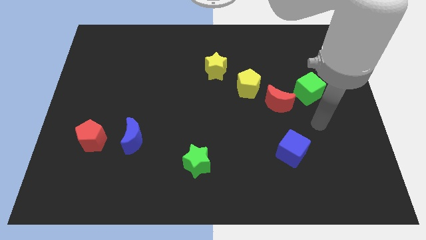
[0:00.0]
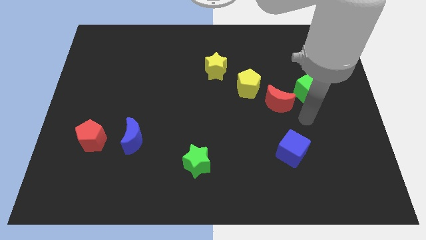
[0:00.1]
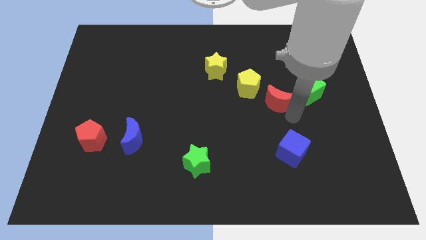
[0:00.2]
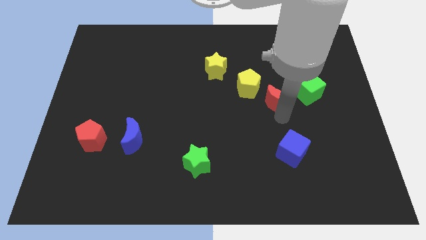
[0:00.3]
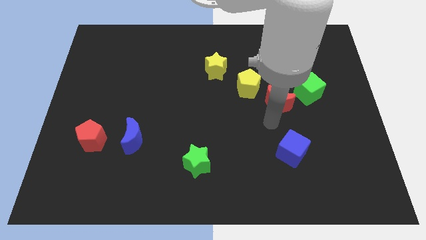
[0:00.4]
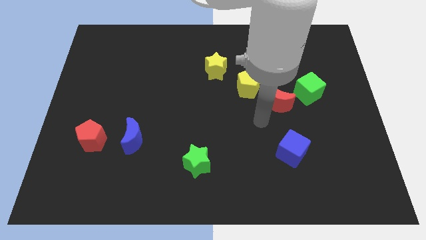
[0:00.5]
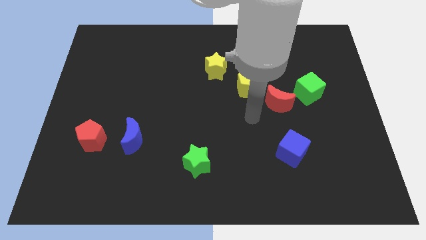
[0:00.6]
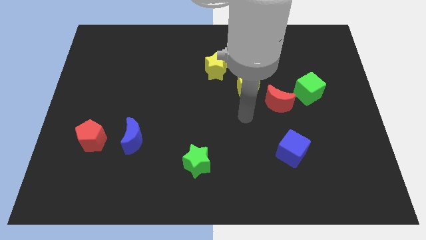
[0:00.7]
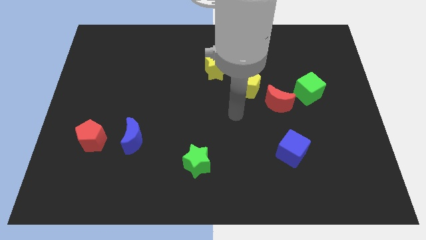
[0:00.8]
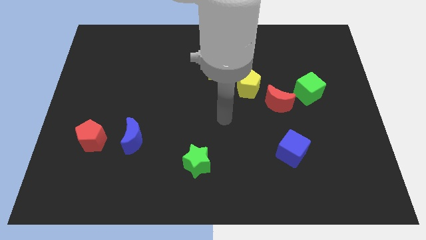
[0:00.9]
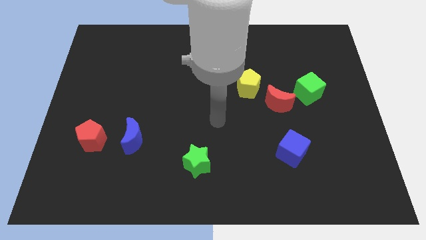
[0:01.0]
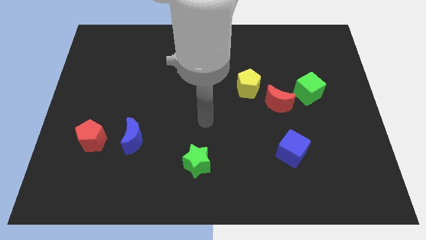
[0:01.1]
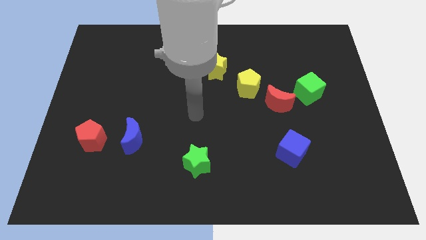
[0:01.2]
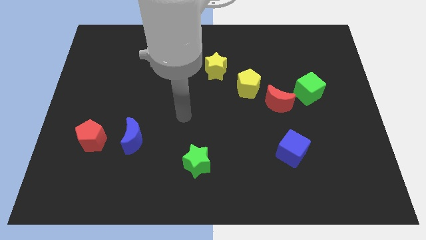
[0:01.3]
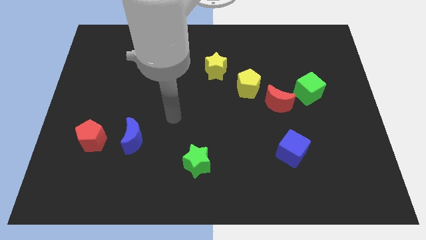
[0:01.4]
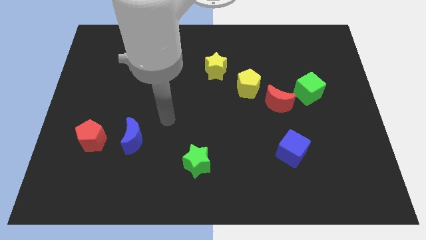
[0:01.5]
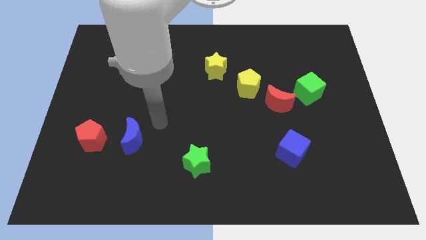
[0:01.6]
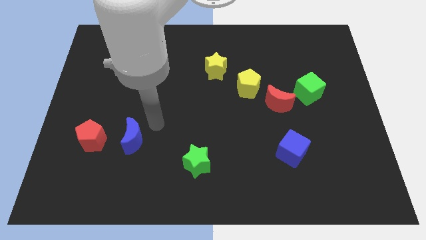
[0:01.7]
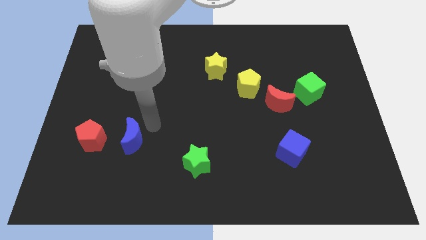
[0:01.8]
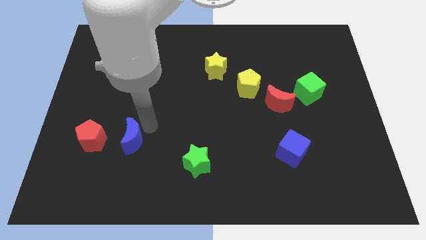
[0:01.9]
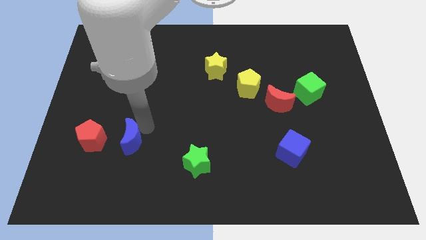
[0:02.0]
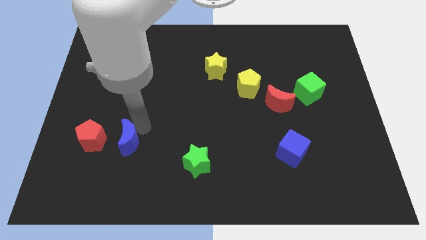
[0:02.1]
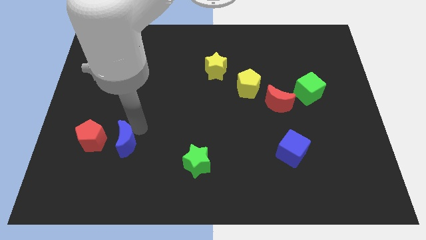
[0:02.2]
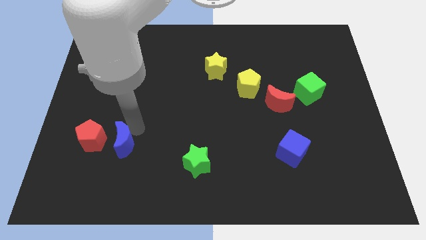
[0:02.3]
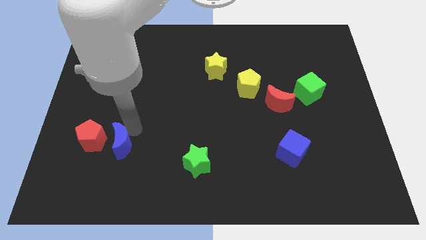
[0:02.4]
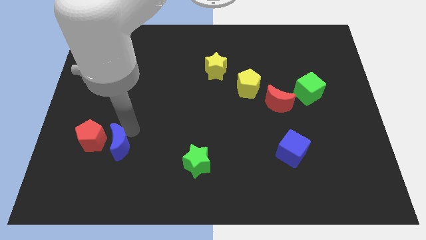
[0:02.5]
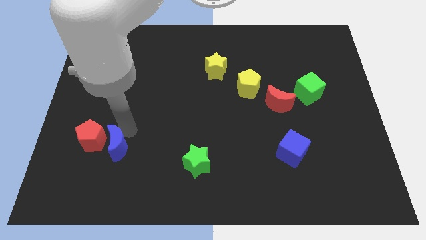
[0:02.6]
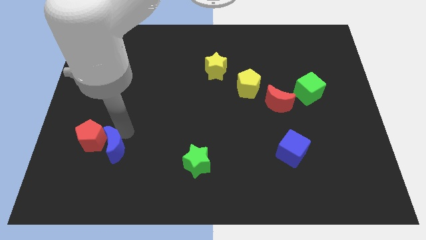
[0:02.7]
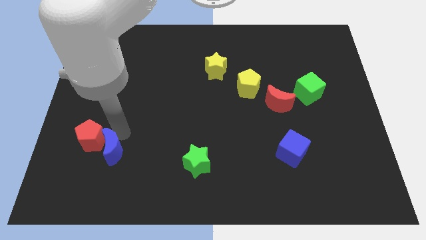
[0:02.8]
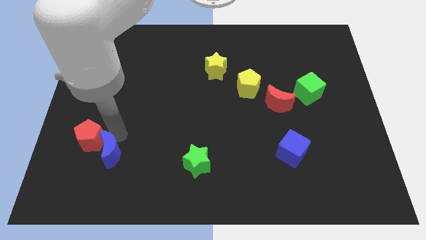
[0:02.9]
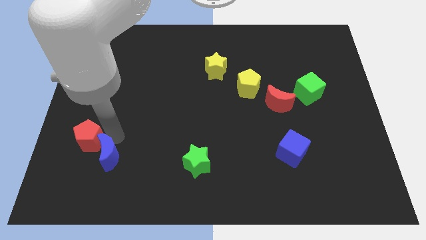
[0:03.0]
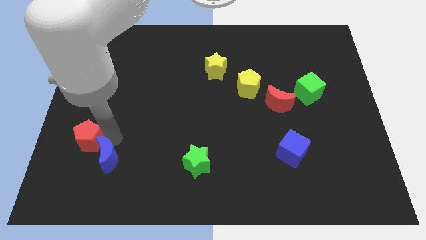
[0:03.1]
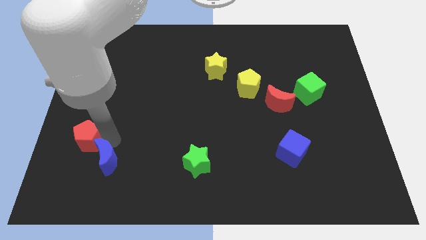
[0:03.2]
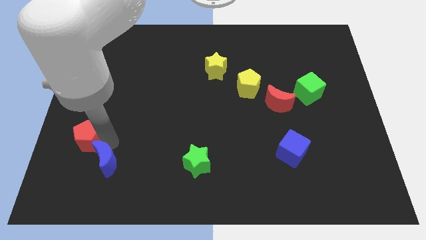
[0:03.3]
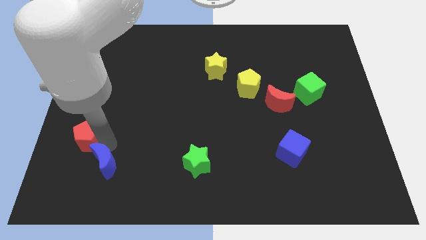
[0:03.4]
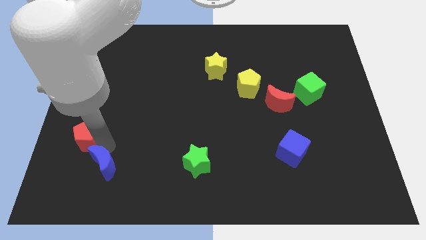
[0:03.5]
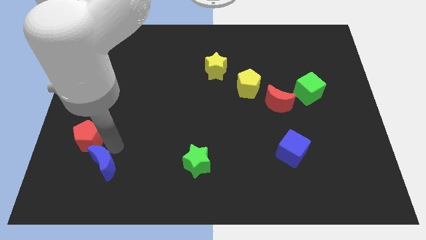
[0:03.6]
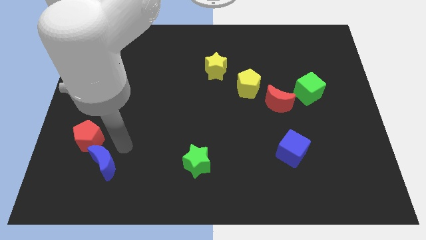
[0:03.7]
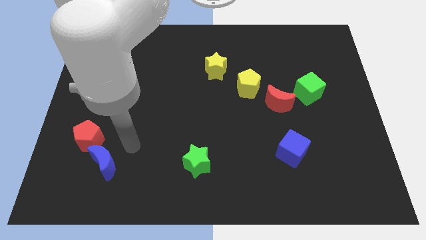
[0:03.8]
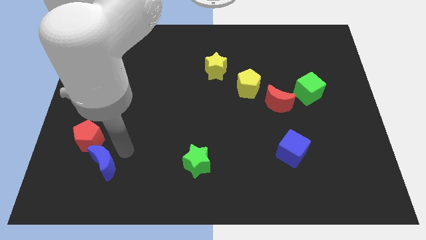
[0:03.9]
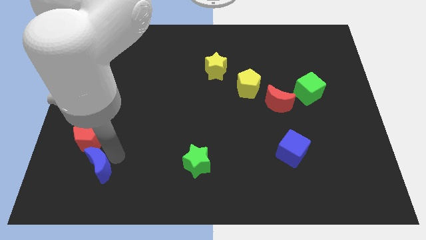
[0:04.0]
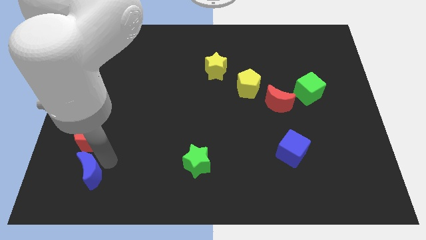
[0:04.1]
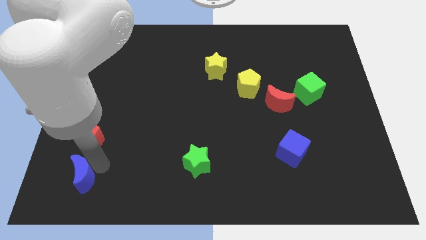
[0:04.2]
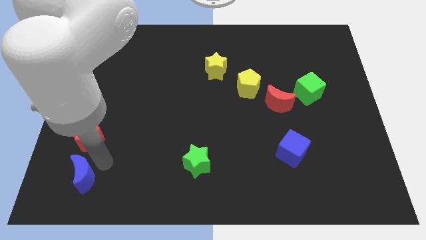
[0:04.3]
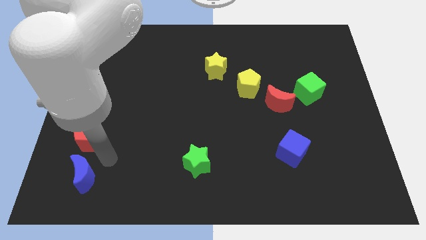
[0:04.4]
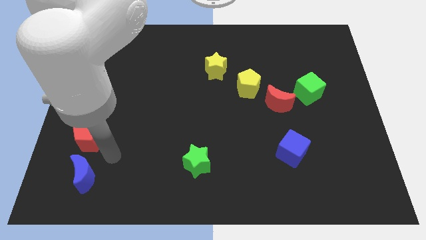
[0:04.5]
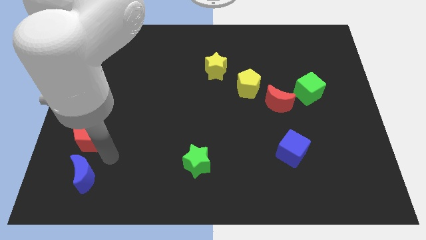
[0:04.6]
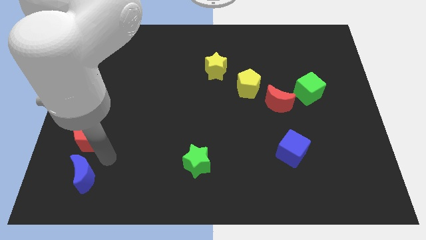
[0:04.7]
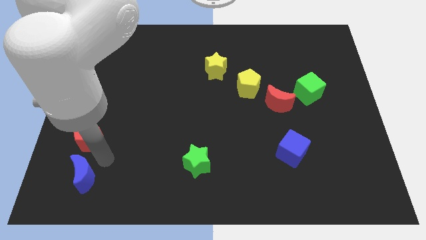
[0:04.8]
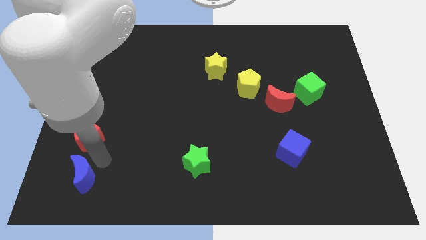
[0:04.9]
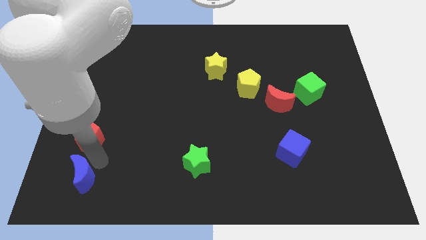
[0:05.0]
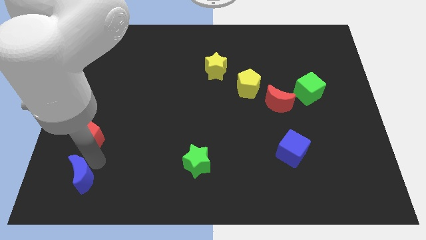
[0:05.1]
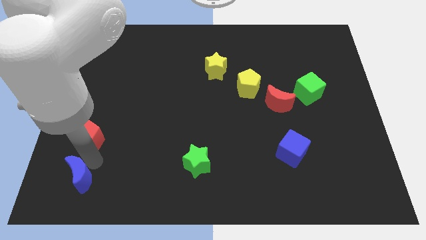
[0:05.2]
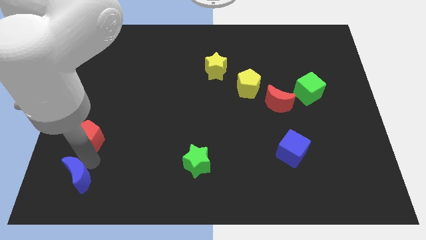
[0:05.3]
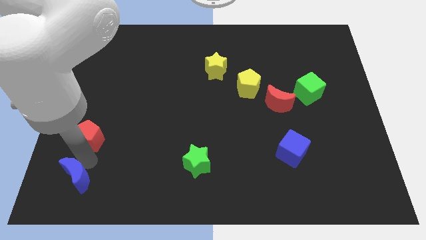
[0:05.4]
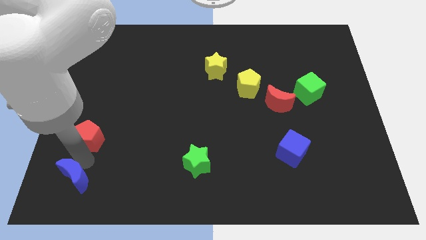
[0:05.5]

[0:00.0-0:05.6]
move the blue moon to the bottom left corner

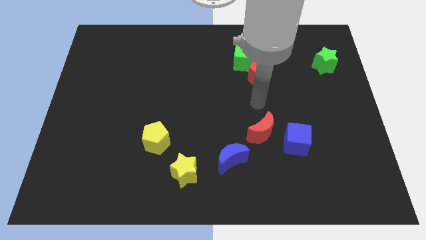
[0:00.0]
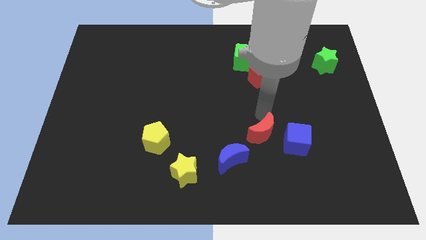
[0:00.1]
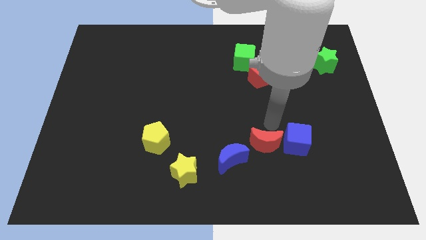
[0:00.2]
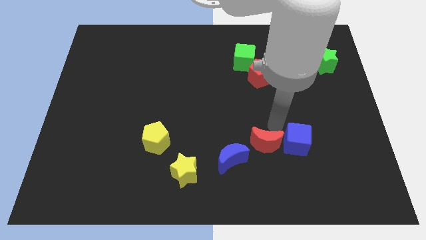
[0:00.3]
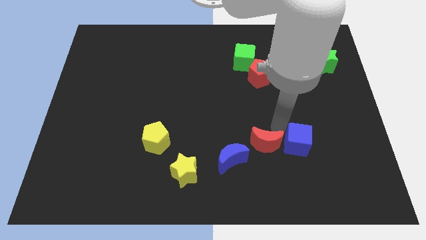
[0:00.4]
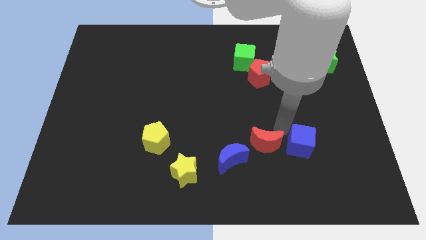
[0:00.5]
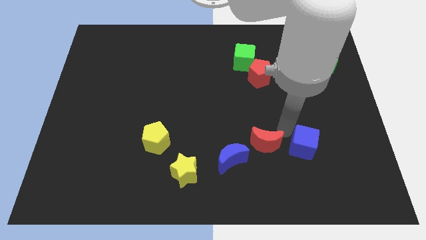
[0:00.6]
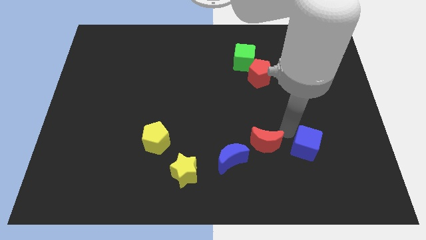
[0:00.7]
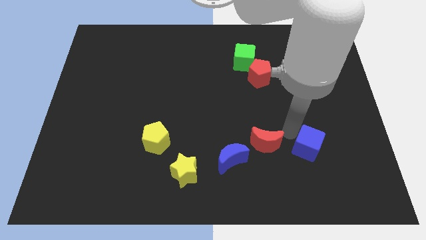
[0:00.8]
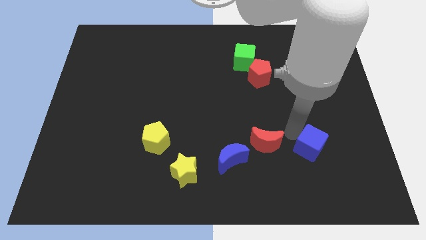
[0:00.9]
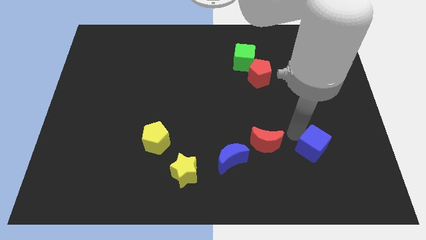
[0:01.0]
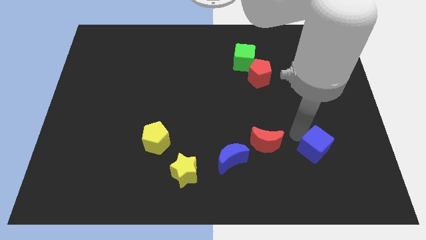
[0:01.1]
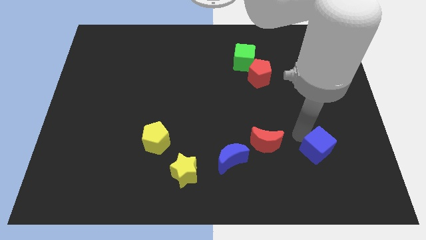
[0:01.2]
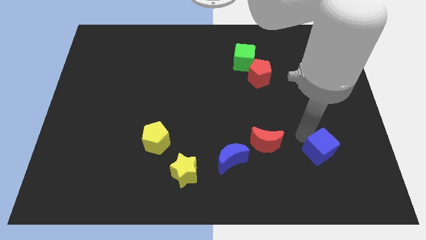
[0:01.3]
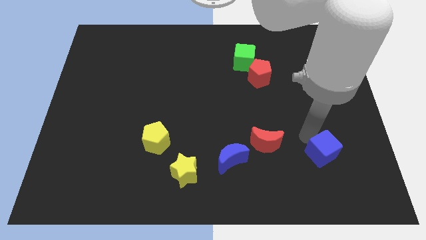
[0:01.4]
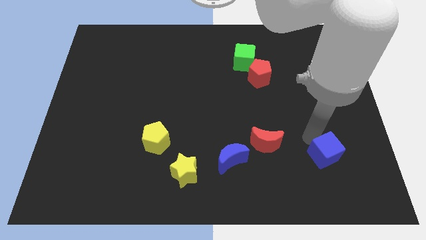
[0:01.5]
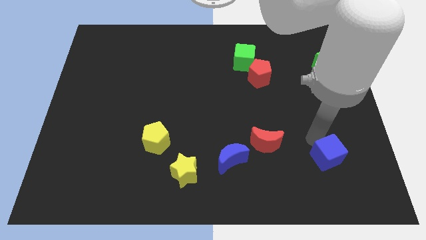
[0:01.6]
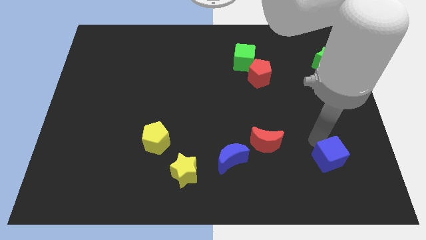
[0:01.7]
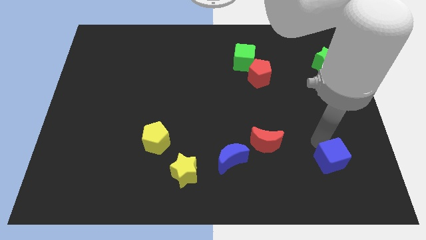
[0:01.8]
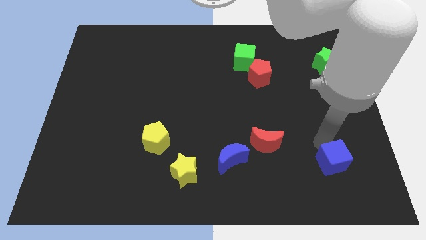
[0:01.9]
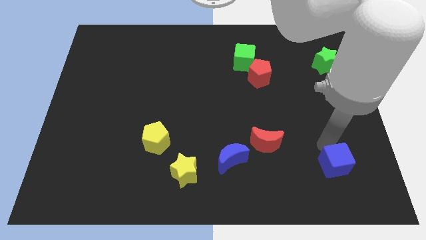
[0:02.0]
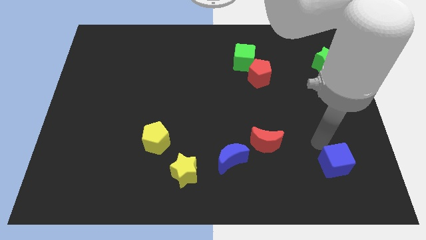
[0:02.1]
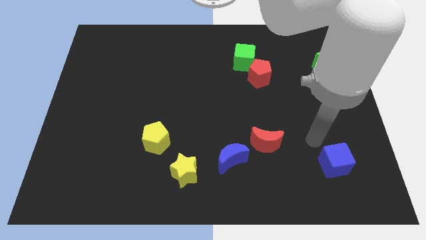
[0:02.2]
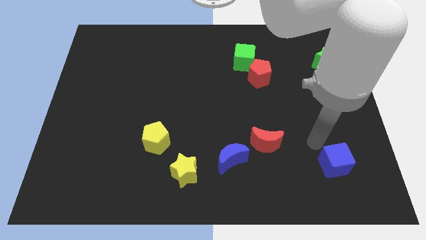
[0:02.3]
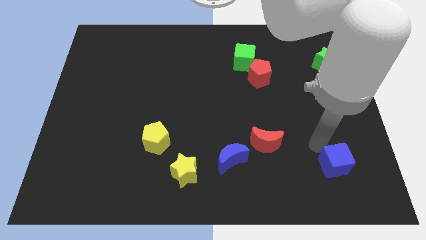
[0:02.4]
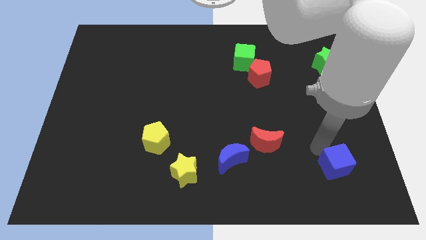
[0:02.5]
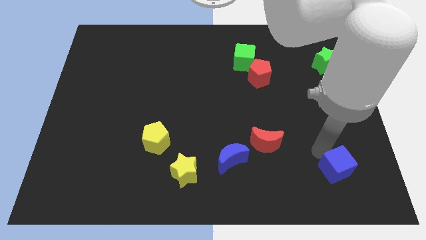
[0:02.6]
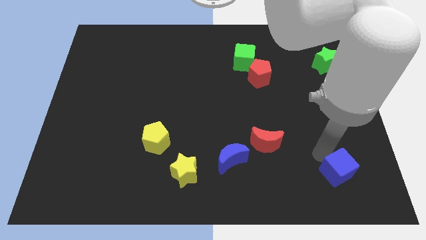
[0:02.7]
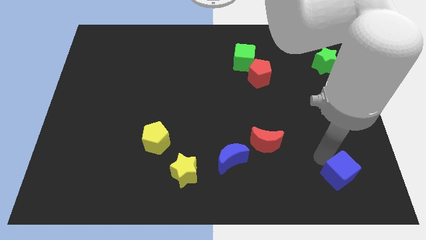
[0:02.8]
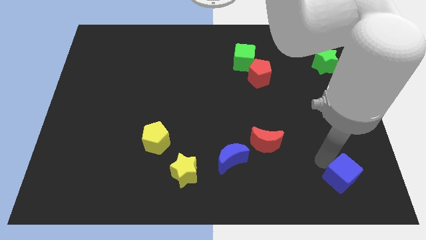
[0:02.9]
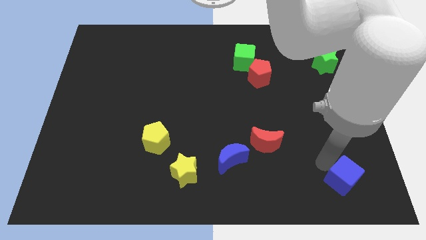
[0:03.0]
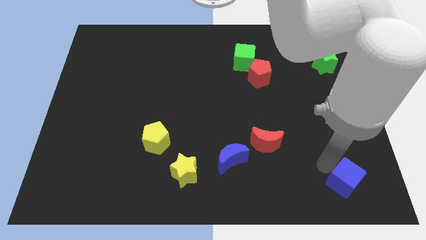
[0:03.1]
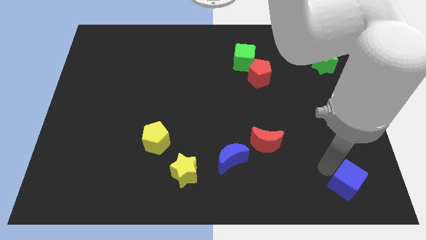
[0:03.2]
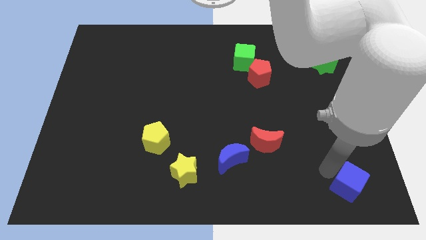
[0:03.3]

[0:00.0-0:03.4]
push the blue cube to the lower right corner
